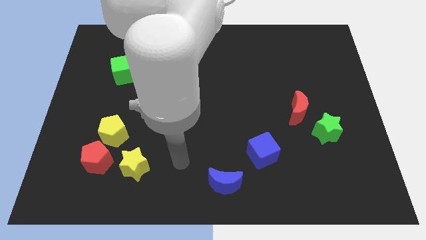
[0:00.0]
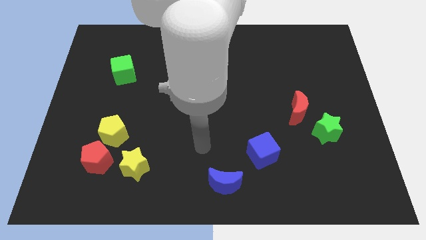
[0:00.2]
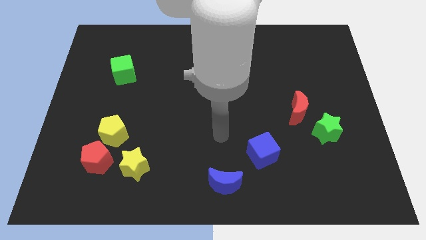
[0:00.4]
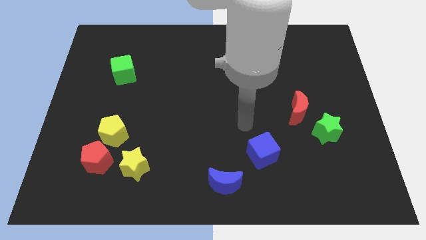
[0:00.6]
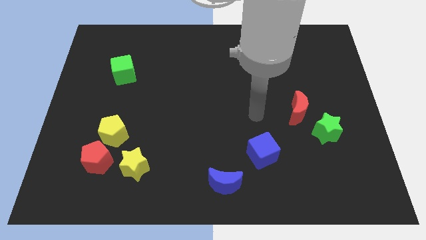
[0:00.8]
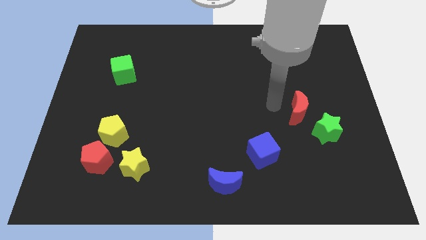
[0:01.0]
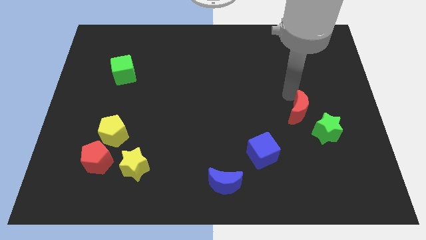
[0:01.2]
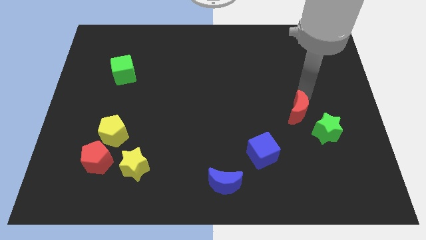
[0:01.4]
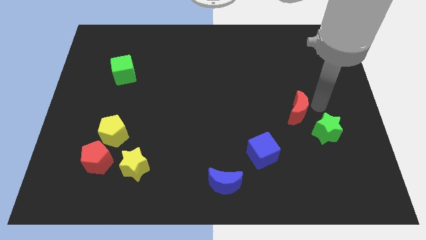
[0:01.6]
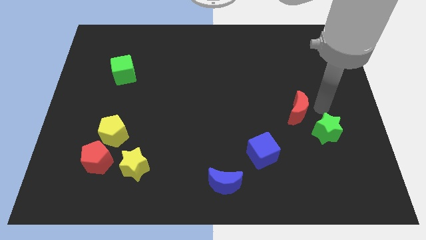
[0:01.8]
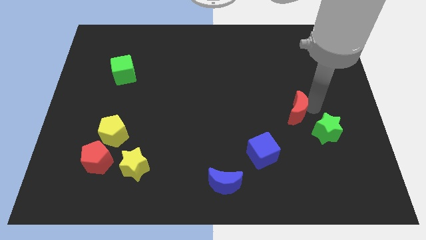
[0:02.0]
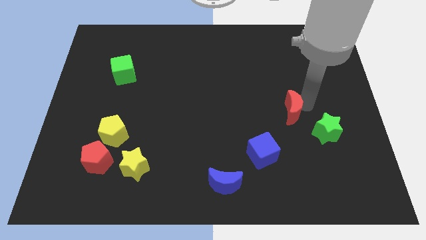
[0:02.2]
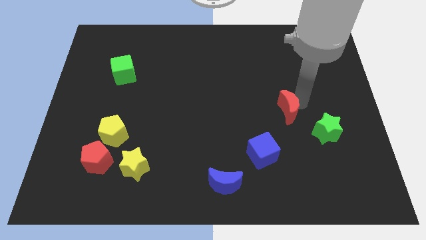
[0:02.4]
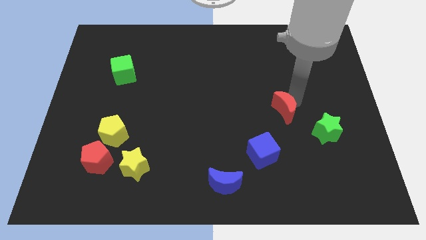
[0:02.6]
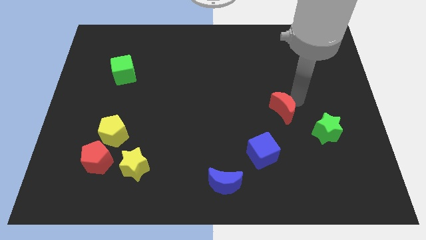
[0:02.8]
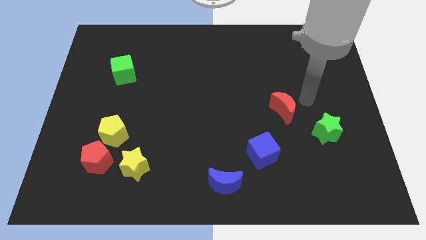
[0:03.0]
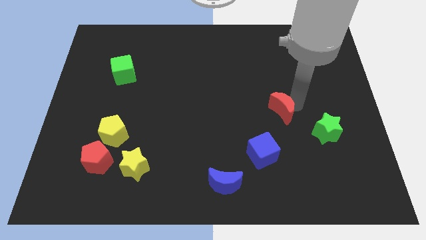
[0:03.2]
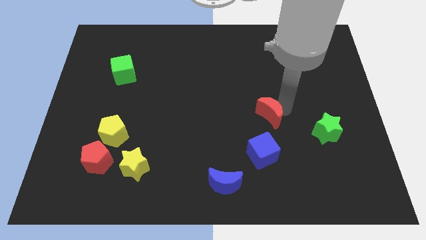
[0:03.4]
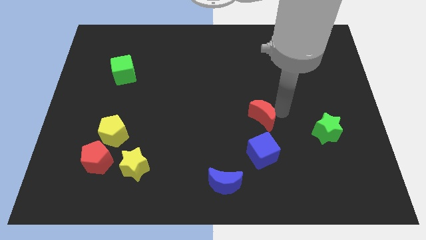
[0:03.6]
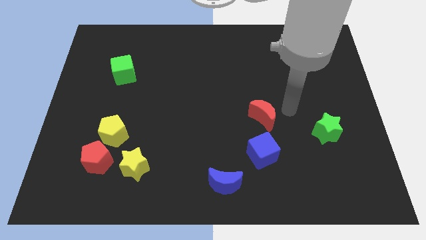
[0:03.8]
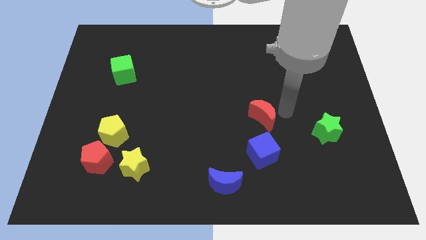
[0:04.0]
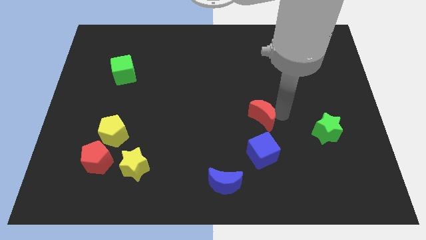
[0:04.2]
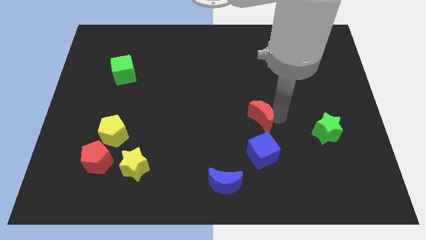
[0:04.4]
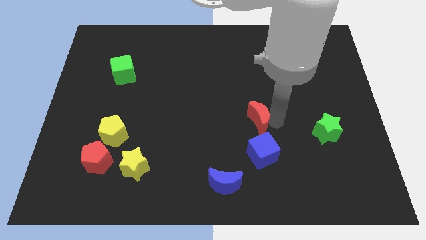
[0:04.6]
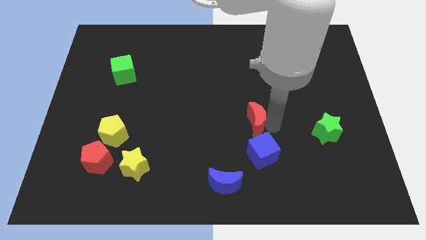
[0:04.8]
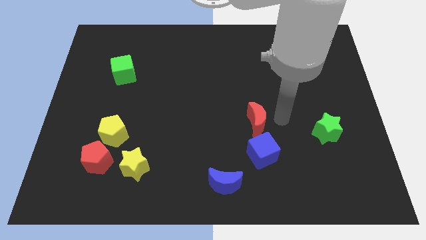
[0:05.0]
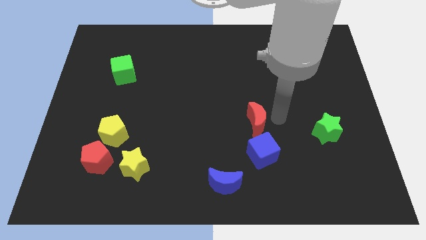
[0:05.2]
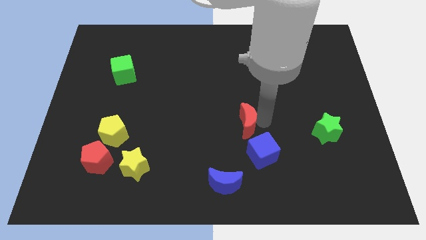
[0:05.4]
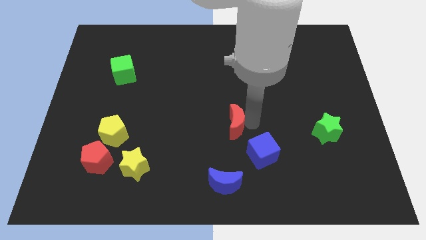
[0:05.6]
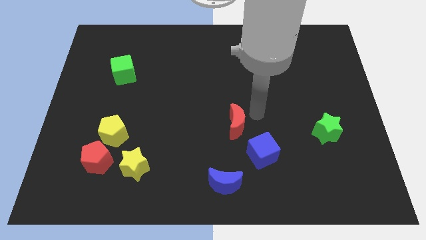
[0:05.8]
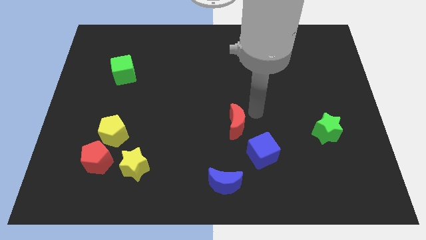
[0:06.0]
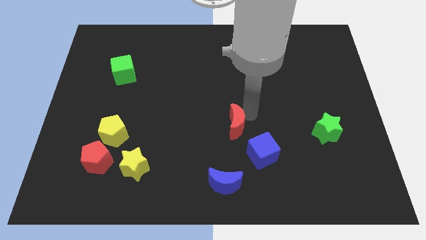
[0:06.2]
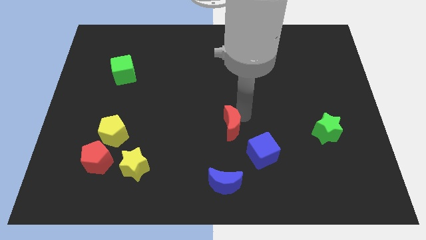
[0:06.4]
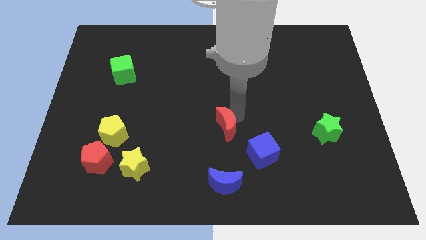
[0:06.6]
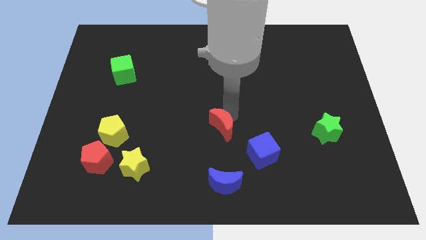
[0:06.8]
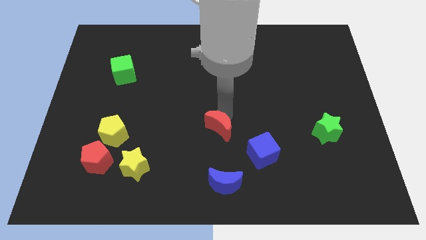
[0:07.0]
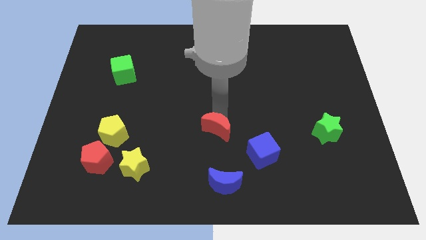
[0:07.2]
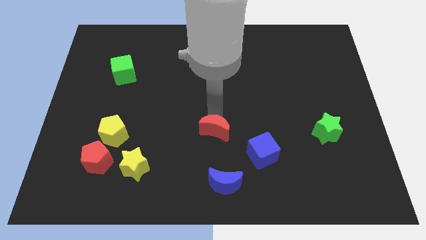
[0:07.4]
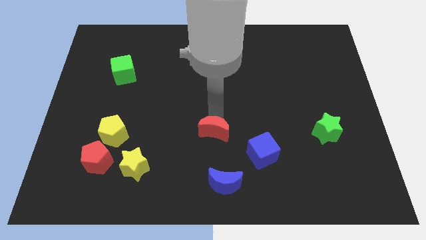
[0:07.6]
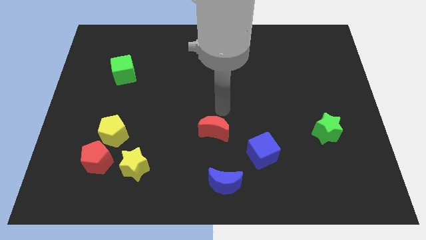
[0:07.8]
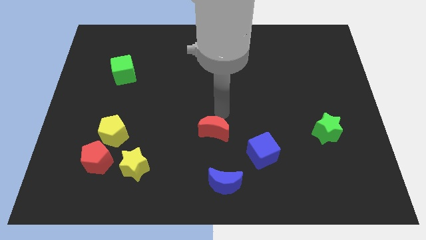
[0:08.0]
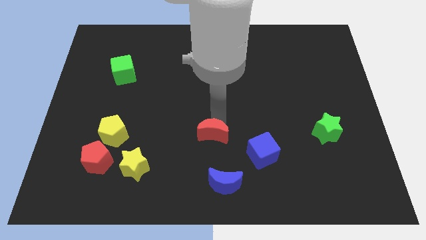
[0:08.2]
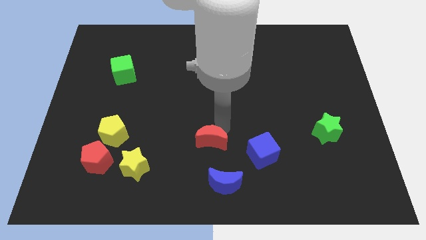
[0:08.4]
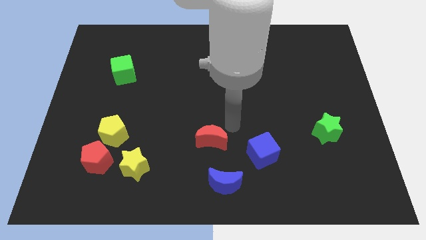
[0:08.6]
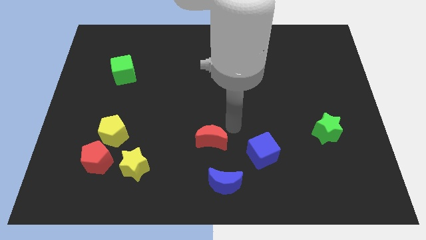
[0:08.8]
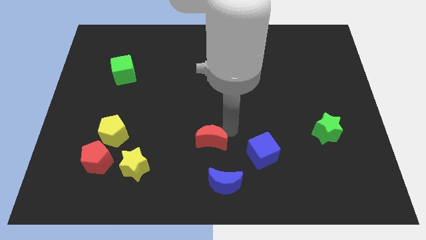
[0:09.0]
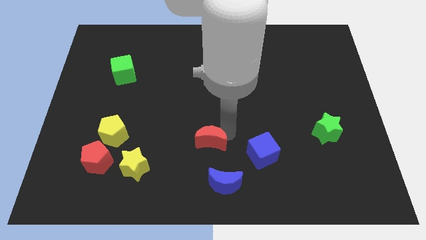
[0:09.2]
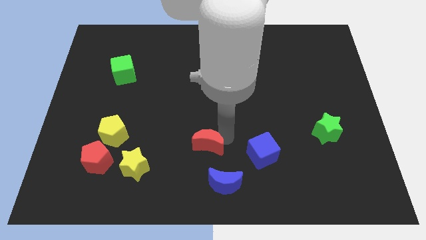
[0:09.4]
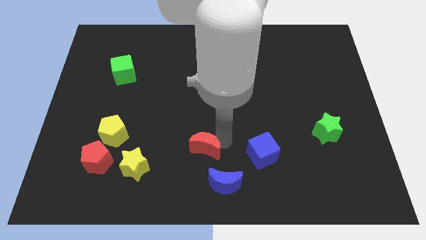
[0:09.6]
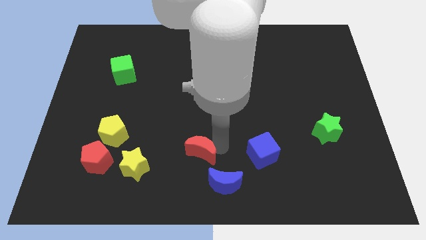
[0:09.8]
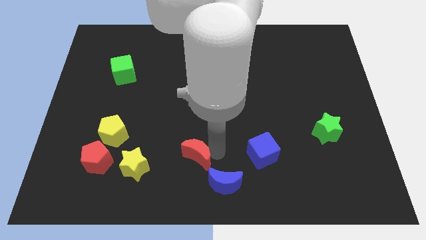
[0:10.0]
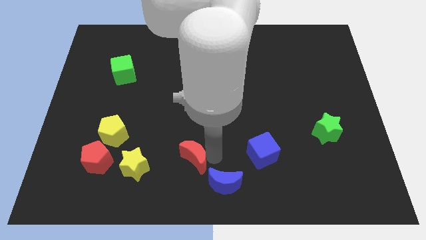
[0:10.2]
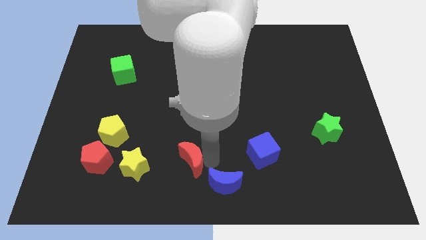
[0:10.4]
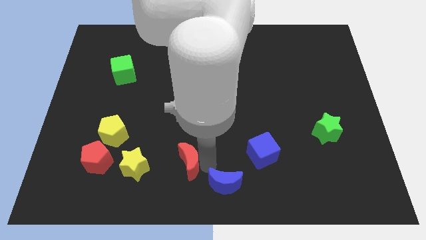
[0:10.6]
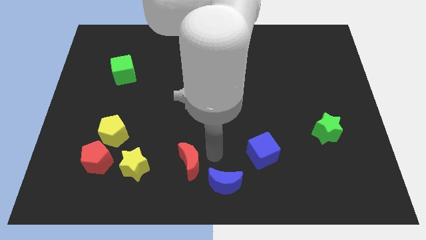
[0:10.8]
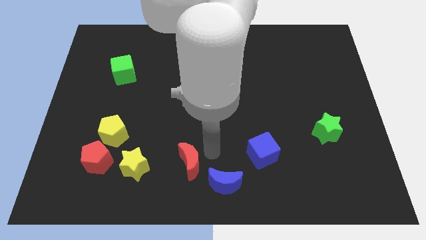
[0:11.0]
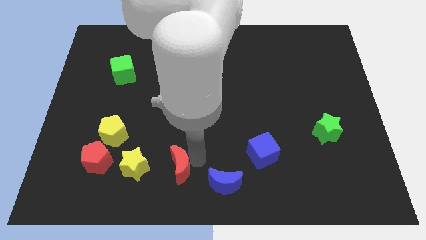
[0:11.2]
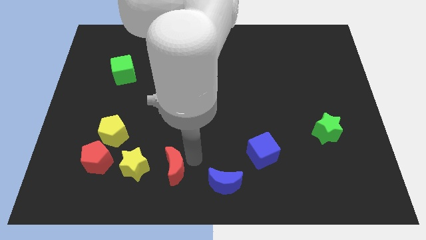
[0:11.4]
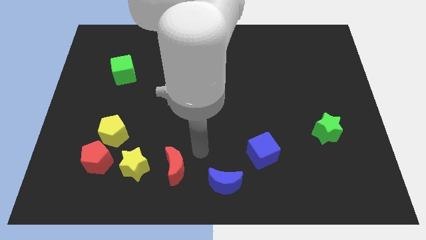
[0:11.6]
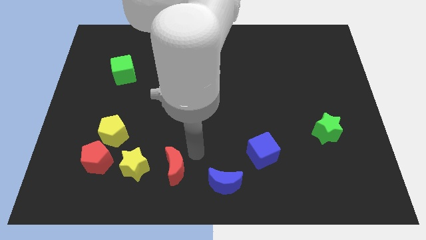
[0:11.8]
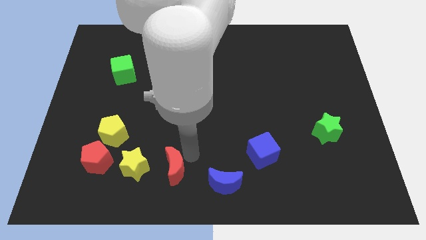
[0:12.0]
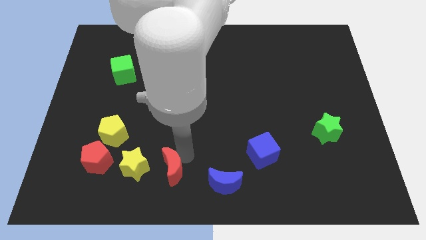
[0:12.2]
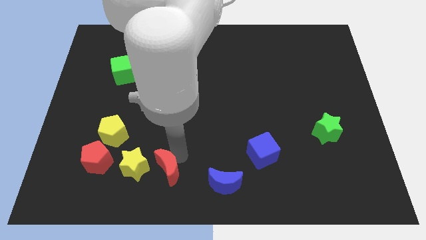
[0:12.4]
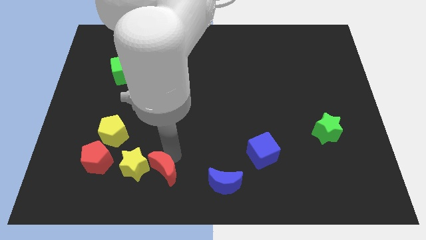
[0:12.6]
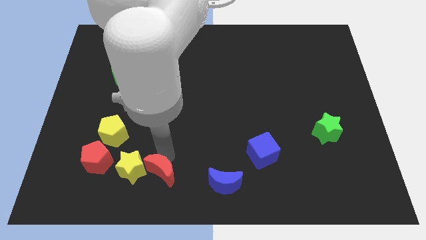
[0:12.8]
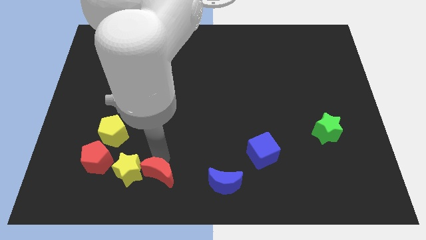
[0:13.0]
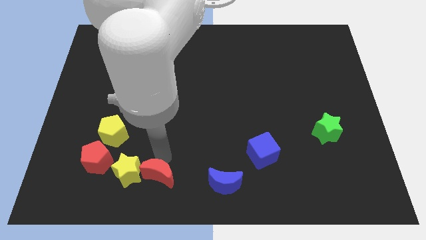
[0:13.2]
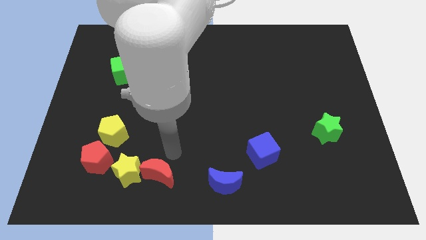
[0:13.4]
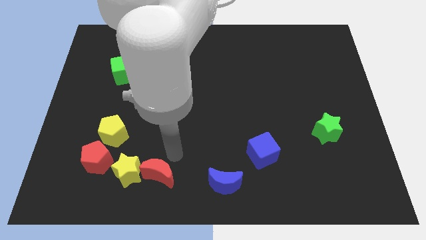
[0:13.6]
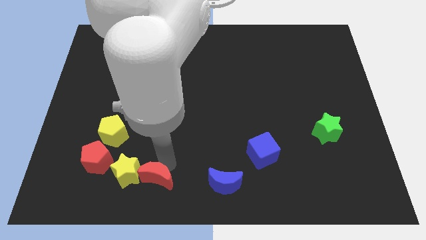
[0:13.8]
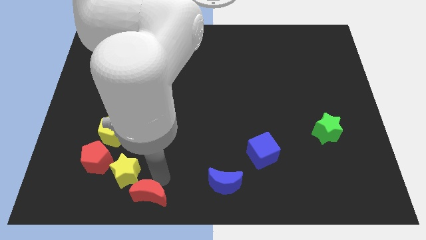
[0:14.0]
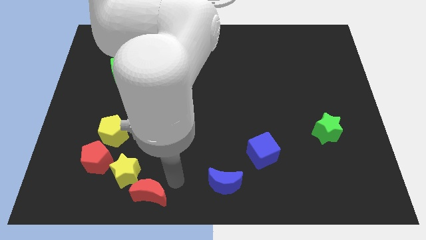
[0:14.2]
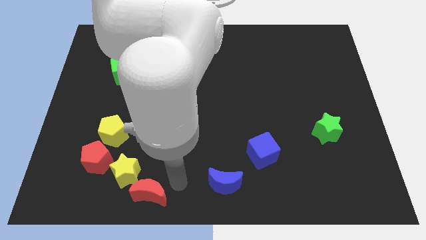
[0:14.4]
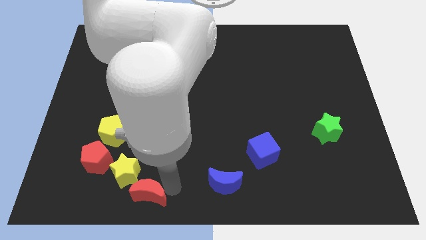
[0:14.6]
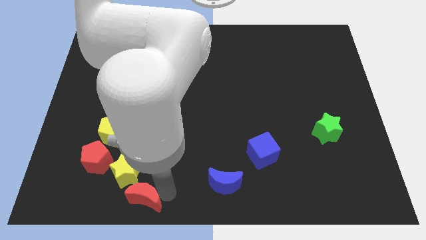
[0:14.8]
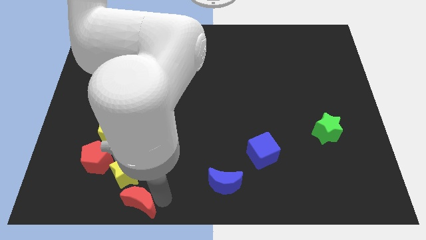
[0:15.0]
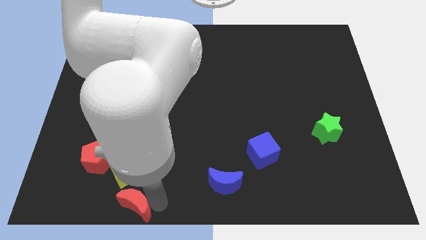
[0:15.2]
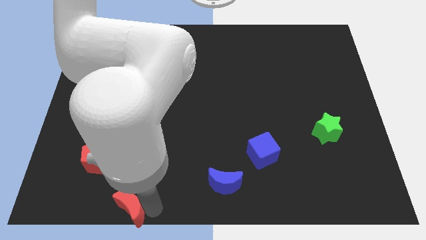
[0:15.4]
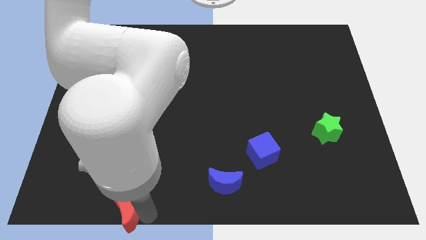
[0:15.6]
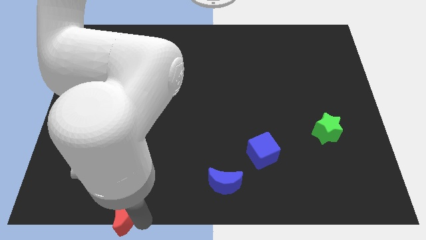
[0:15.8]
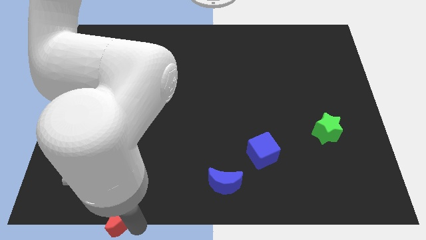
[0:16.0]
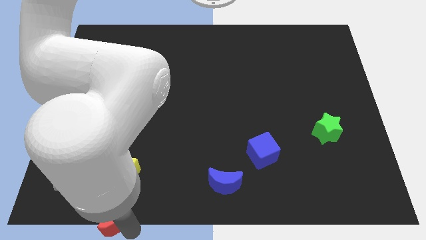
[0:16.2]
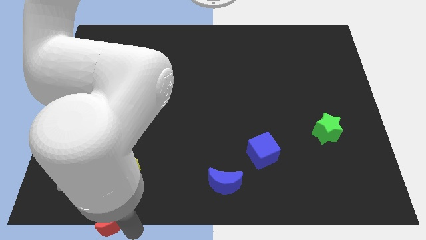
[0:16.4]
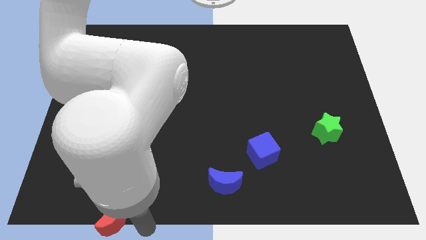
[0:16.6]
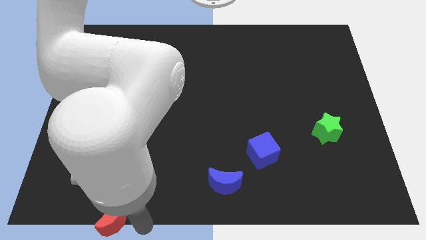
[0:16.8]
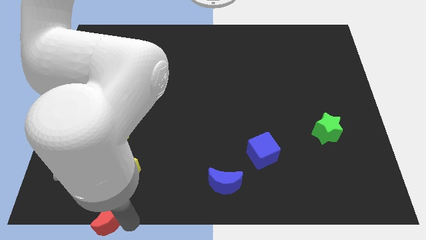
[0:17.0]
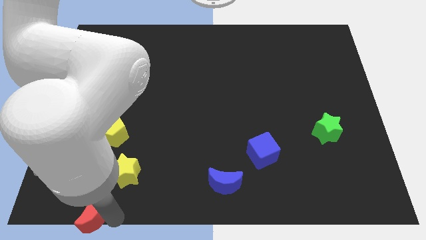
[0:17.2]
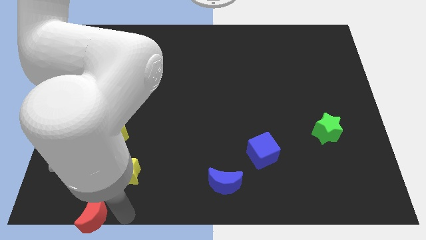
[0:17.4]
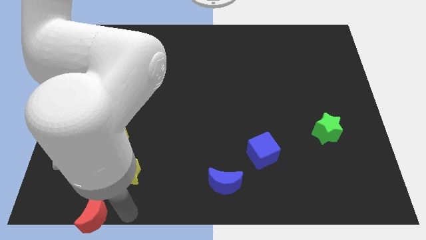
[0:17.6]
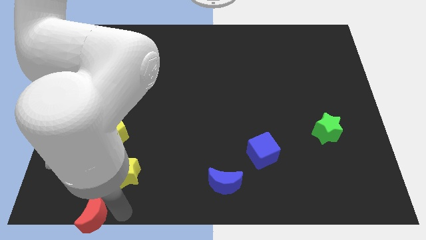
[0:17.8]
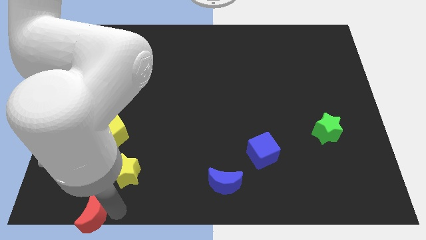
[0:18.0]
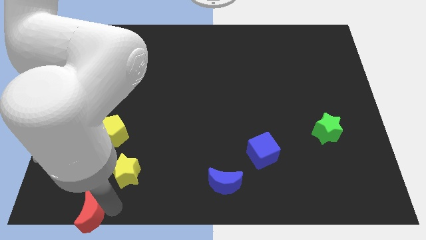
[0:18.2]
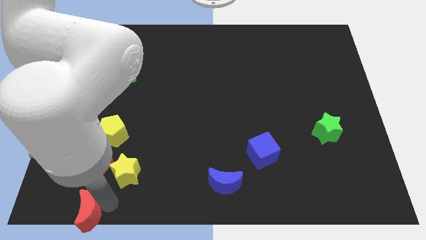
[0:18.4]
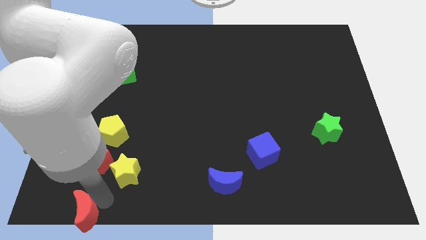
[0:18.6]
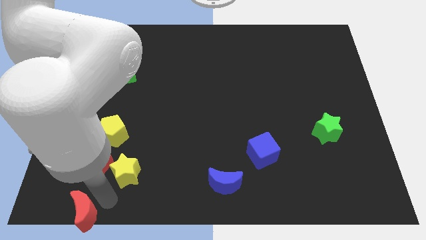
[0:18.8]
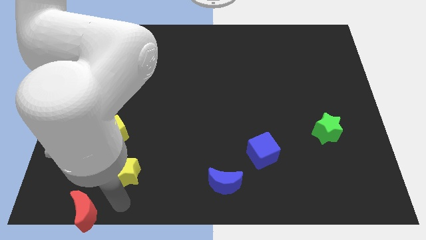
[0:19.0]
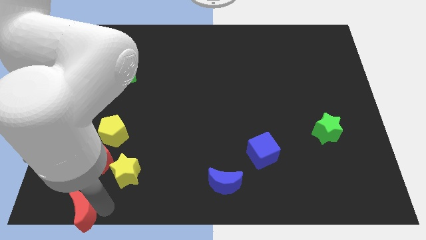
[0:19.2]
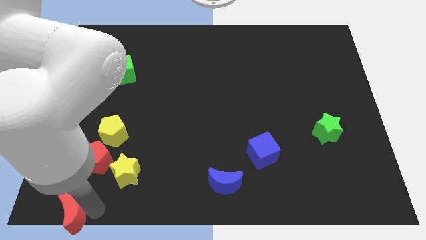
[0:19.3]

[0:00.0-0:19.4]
slide the red moon to the lower left corner
